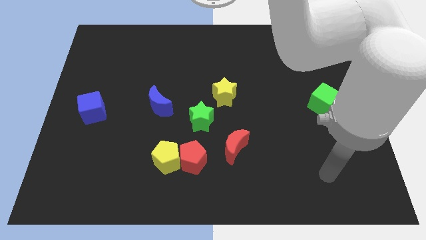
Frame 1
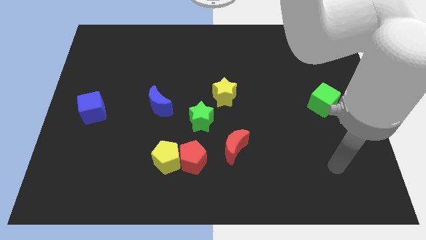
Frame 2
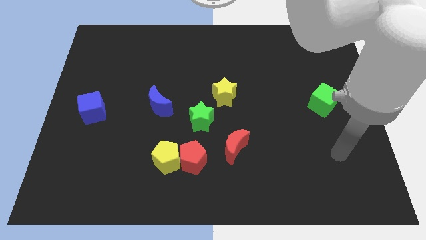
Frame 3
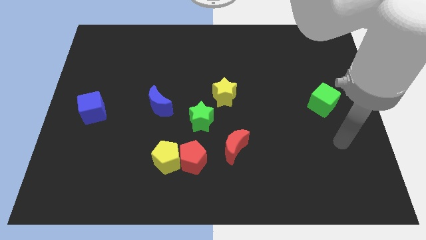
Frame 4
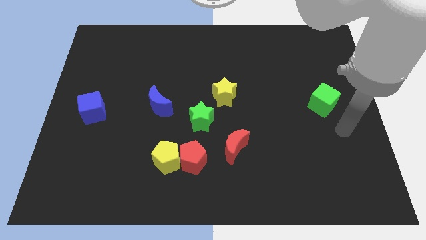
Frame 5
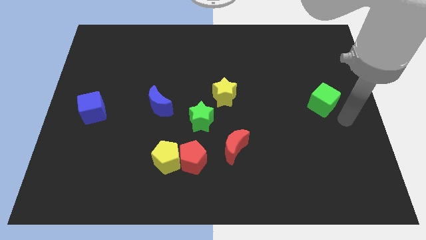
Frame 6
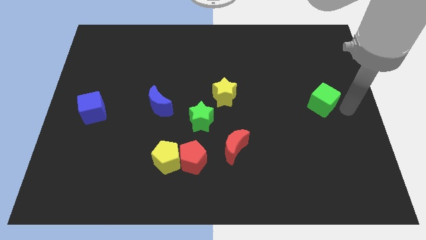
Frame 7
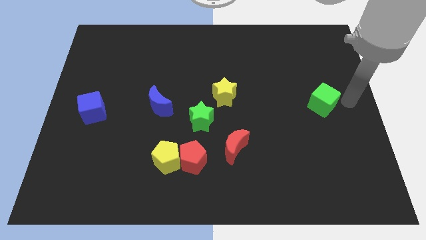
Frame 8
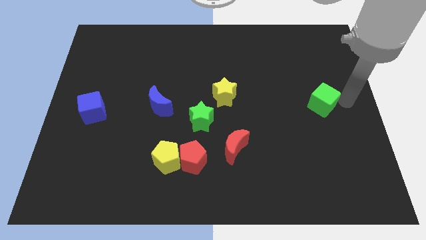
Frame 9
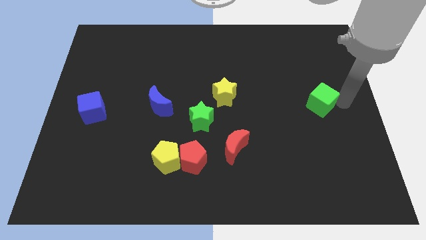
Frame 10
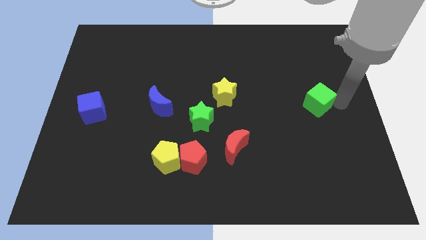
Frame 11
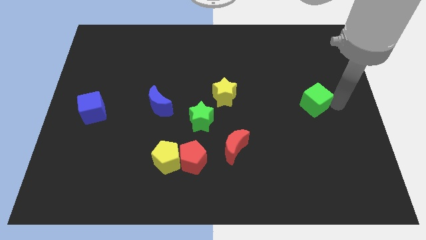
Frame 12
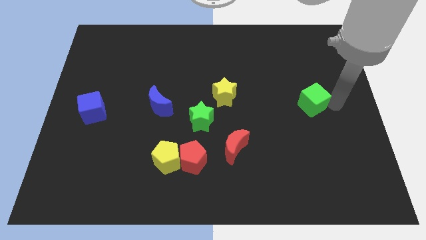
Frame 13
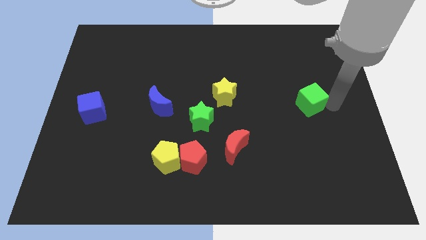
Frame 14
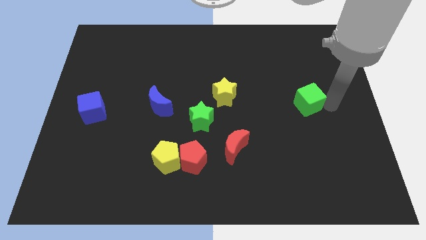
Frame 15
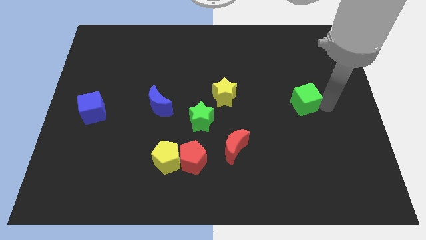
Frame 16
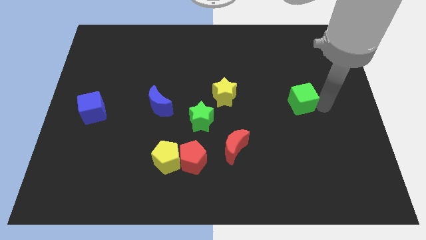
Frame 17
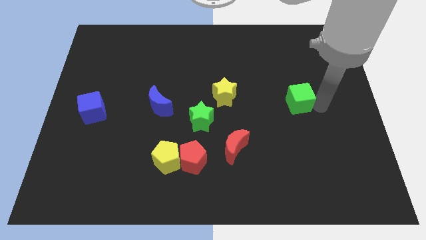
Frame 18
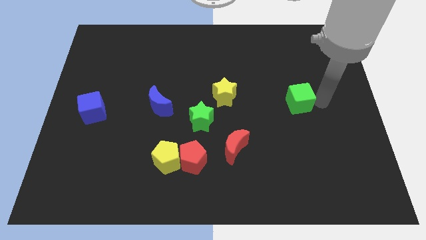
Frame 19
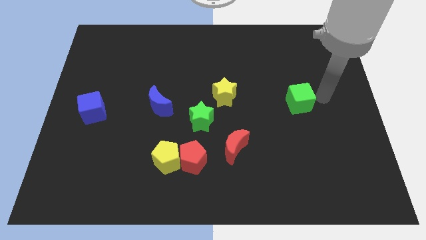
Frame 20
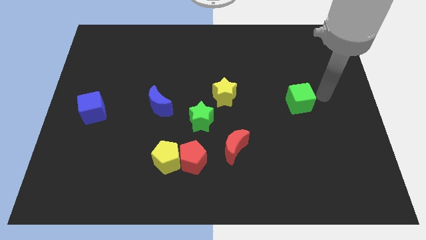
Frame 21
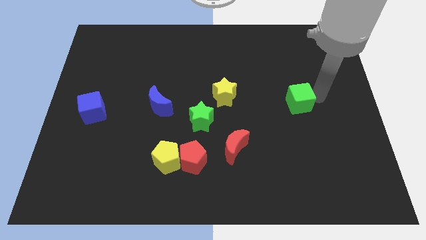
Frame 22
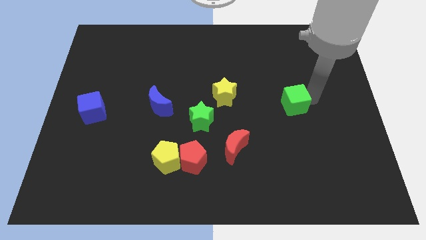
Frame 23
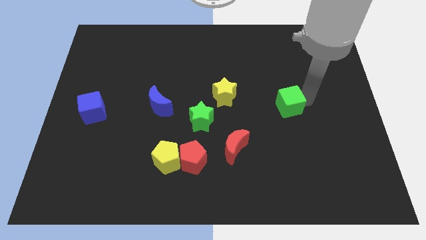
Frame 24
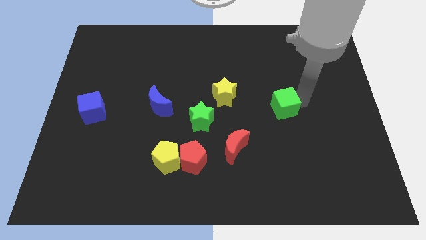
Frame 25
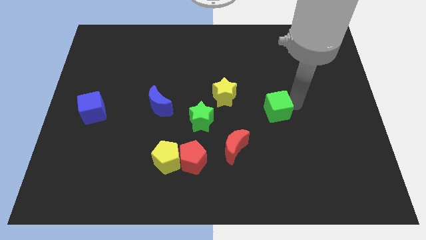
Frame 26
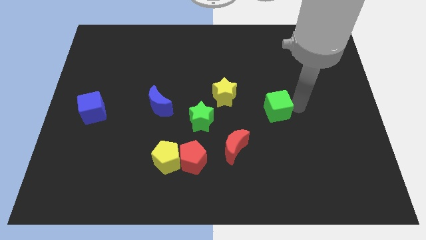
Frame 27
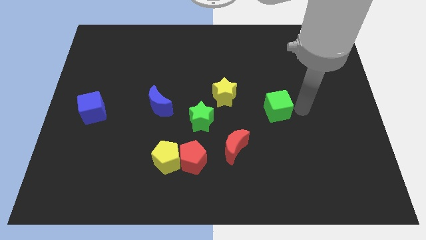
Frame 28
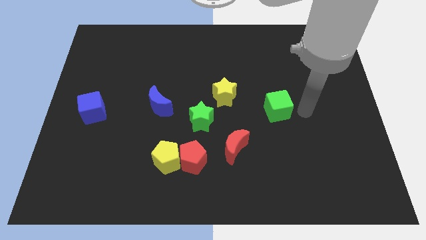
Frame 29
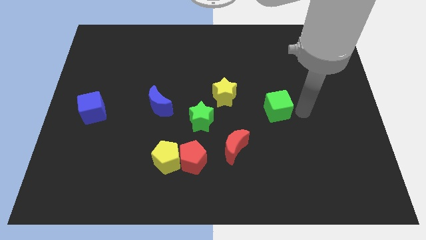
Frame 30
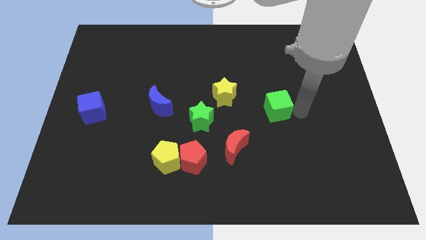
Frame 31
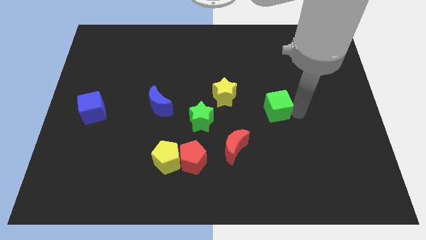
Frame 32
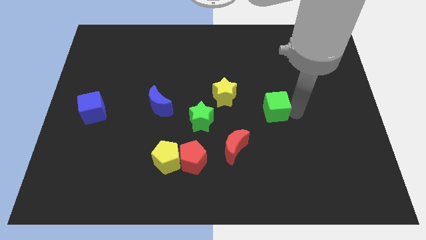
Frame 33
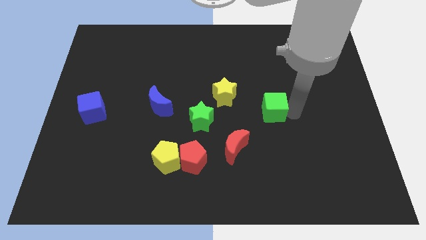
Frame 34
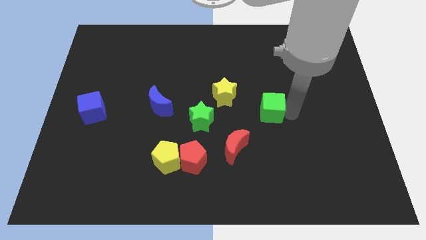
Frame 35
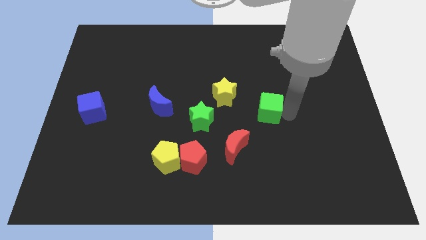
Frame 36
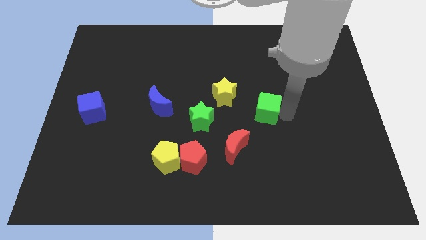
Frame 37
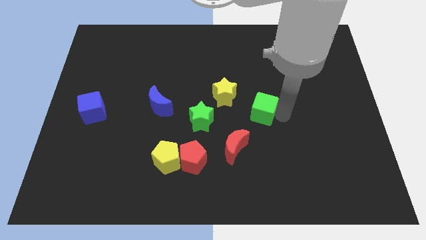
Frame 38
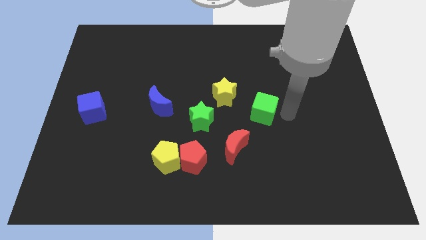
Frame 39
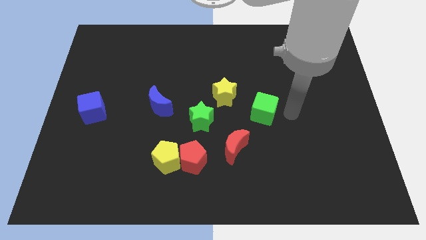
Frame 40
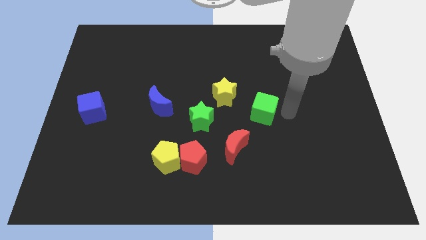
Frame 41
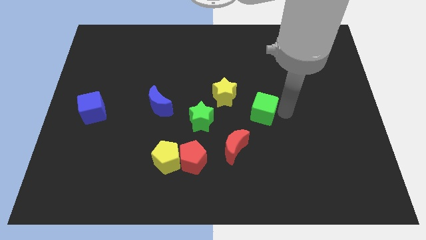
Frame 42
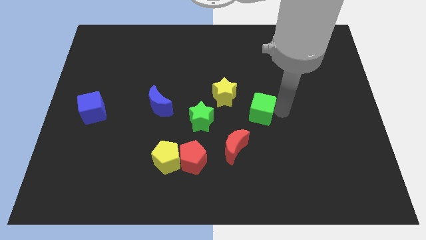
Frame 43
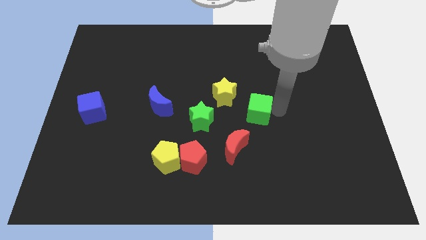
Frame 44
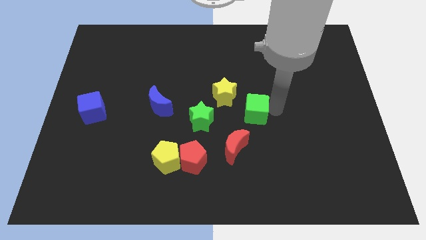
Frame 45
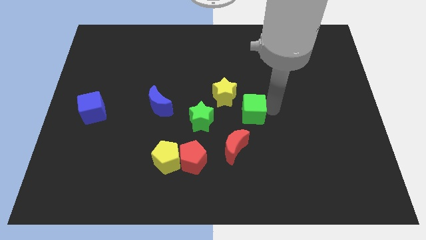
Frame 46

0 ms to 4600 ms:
put the green cube to the top of the red moon

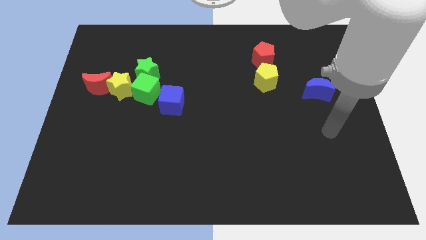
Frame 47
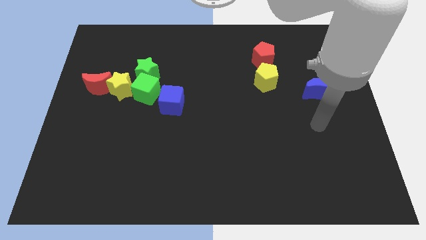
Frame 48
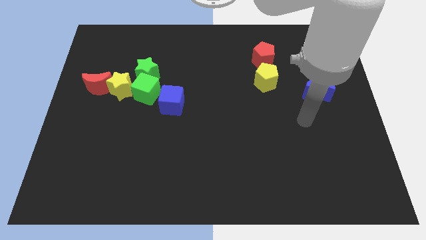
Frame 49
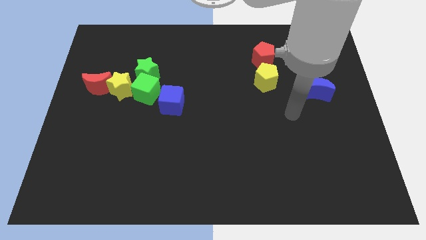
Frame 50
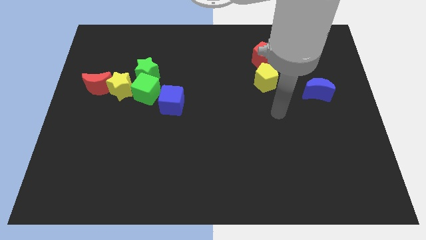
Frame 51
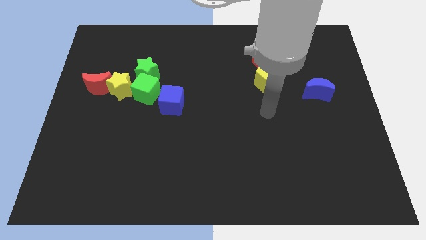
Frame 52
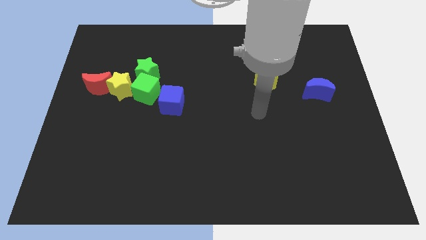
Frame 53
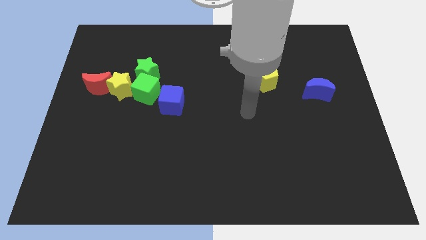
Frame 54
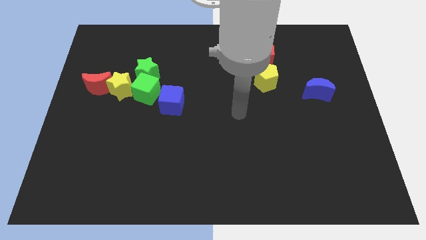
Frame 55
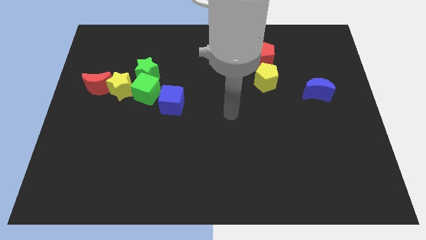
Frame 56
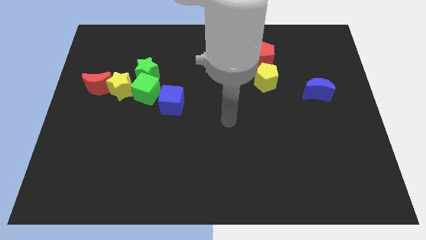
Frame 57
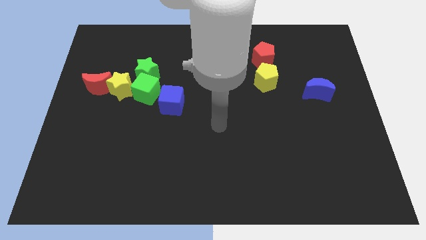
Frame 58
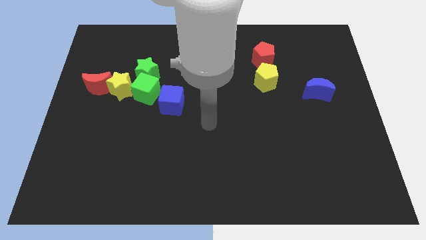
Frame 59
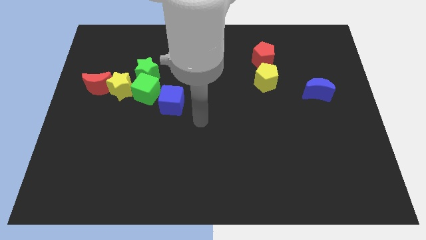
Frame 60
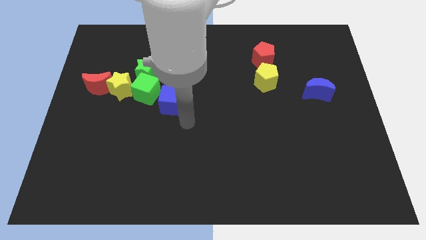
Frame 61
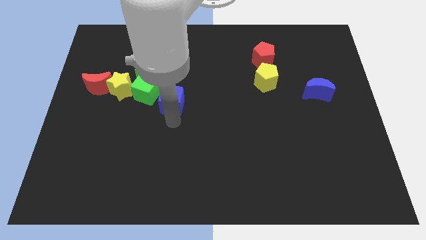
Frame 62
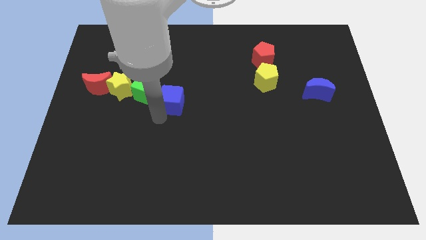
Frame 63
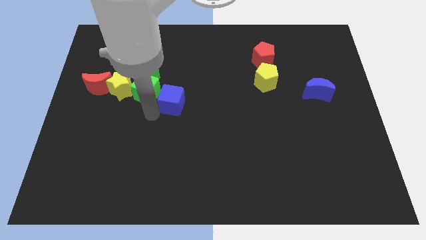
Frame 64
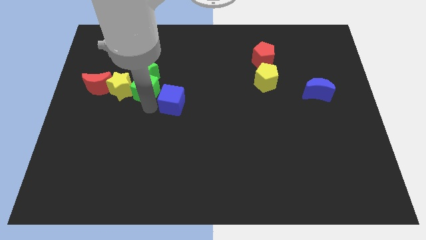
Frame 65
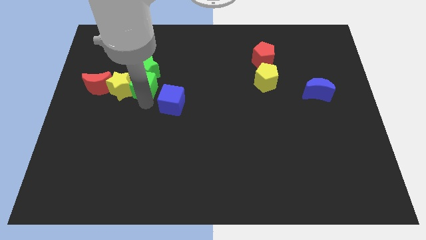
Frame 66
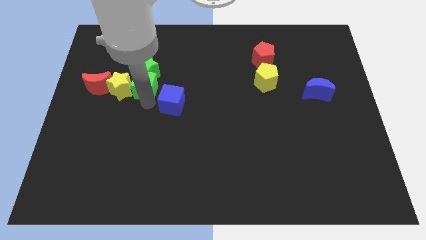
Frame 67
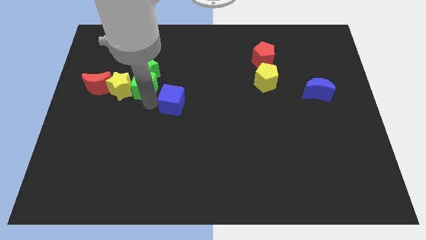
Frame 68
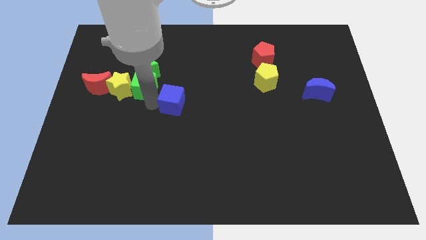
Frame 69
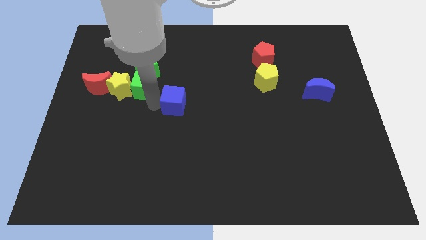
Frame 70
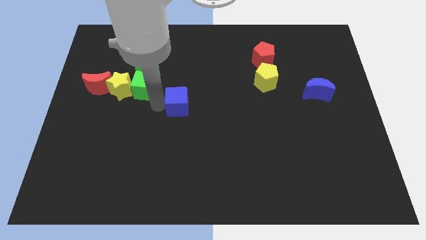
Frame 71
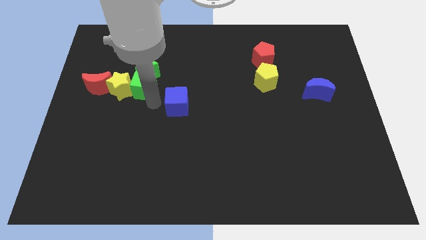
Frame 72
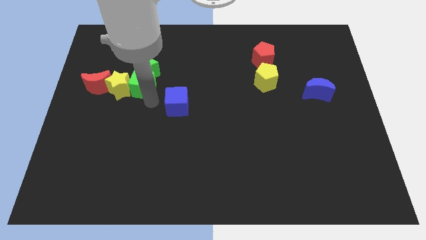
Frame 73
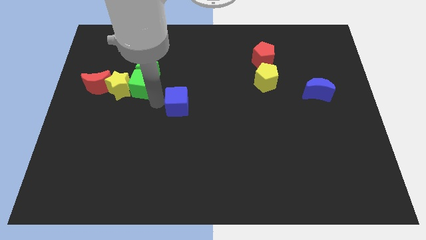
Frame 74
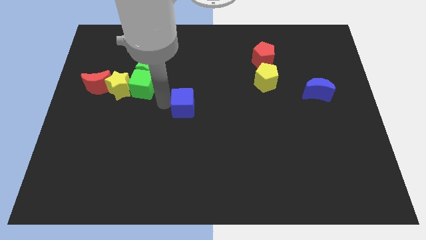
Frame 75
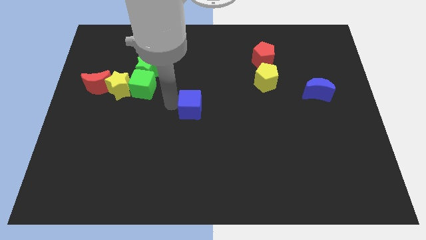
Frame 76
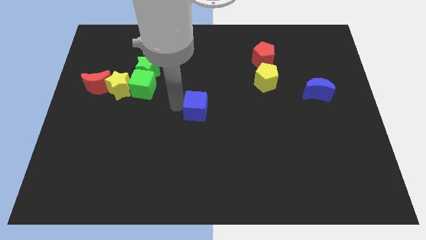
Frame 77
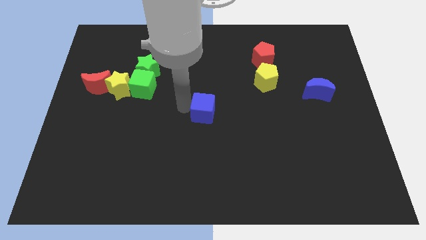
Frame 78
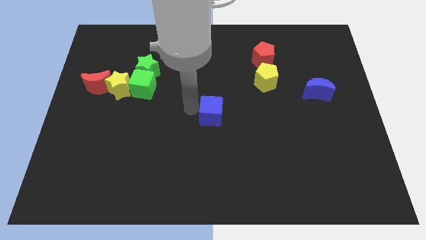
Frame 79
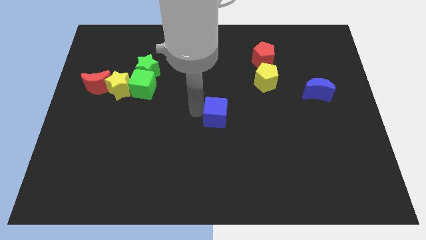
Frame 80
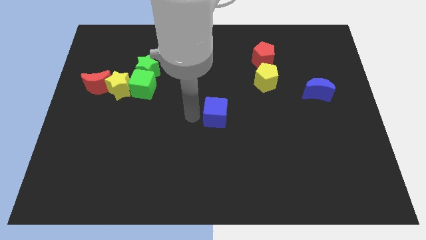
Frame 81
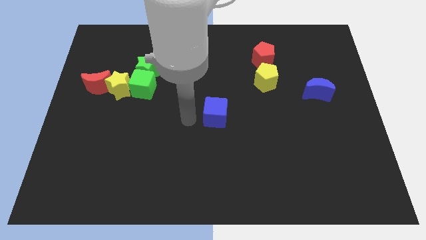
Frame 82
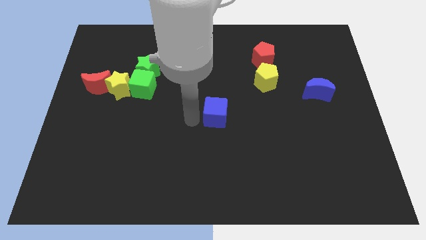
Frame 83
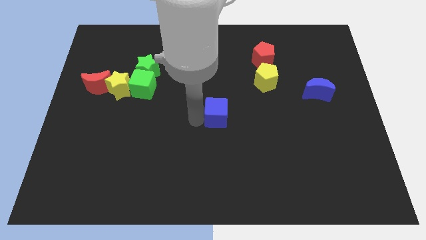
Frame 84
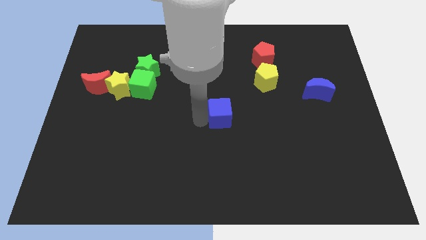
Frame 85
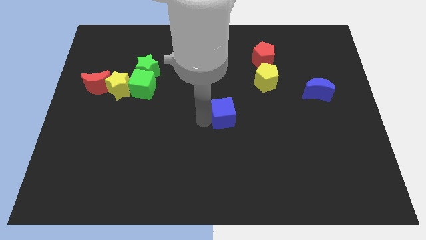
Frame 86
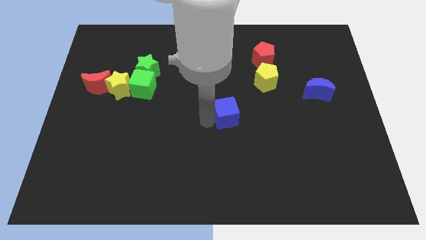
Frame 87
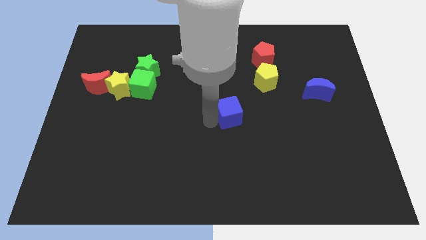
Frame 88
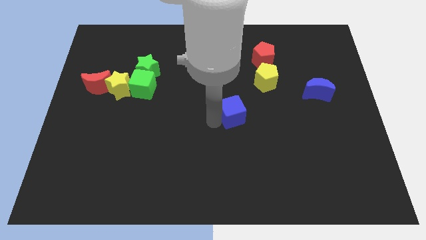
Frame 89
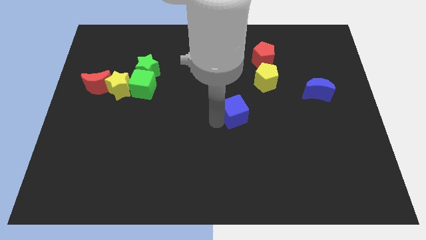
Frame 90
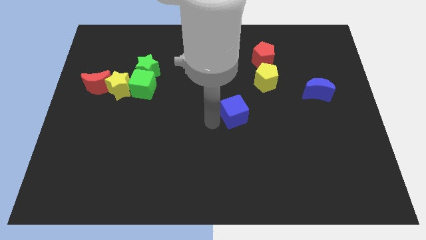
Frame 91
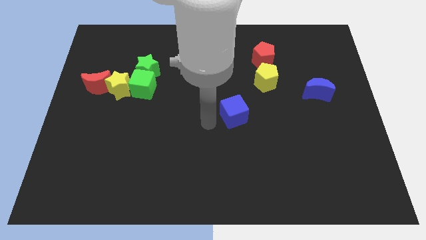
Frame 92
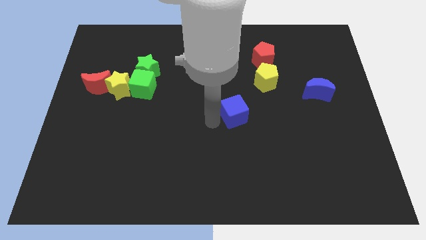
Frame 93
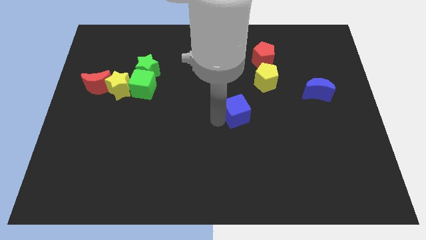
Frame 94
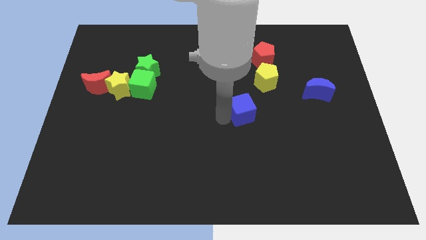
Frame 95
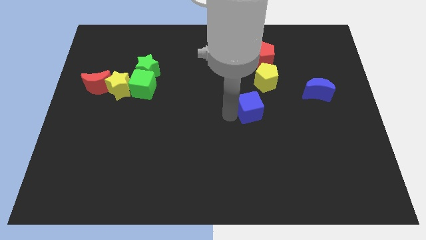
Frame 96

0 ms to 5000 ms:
move the blue cube to the bottom side of the yellow pentagon
